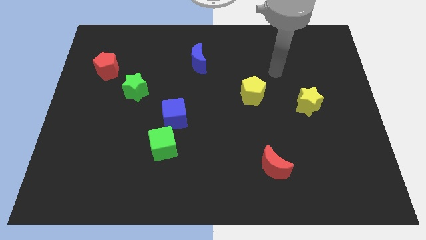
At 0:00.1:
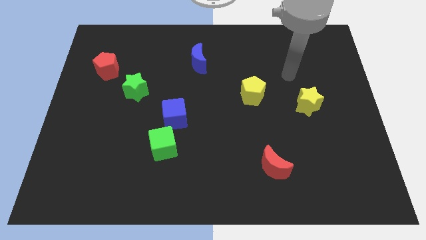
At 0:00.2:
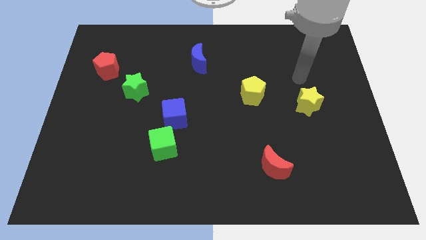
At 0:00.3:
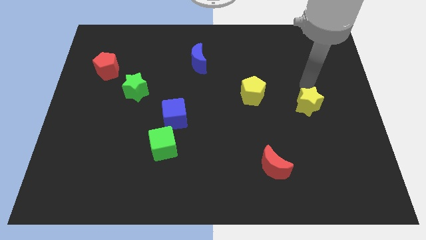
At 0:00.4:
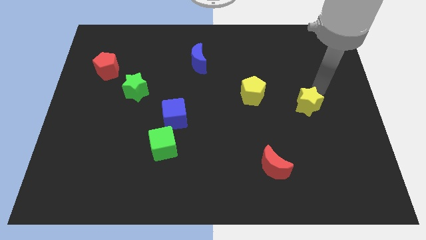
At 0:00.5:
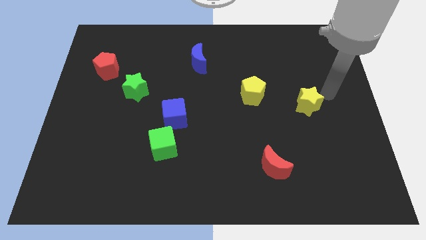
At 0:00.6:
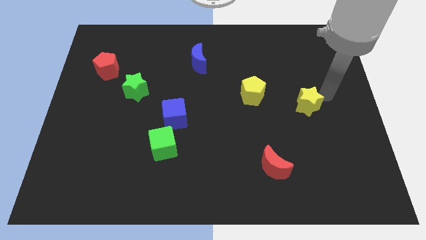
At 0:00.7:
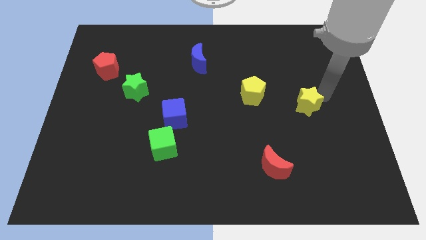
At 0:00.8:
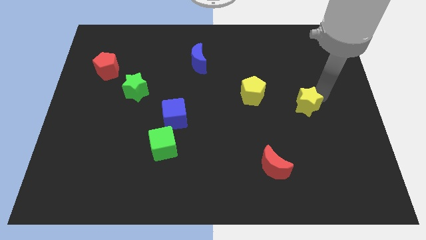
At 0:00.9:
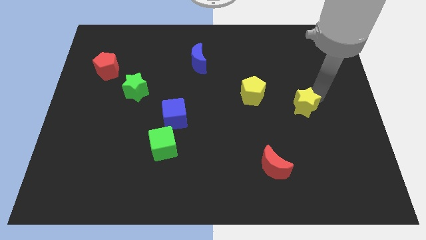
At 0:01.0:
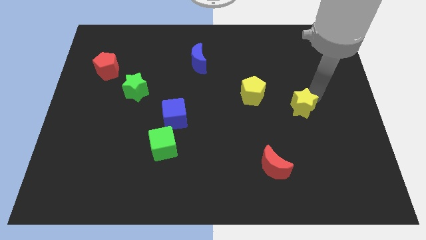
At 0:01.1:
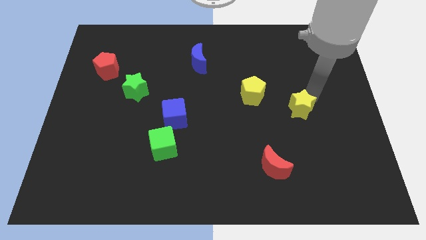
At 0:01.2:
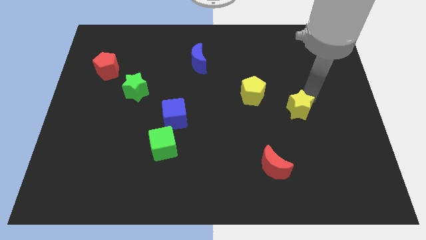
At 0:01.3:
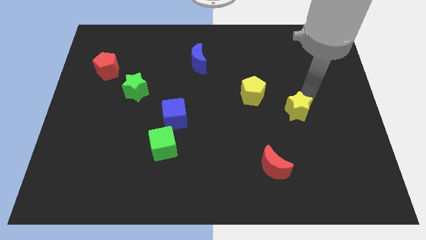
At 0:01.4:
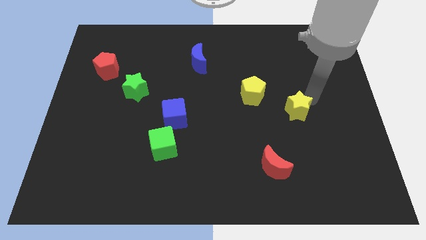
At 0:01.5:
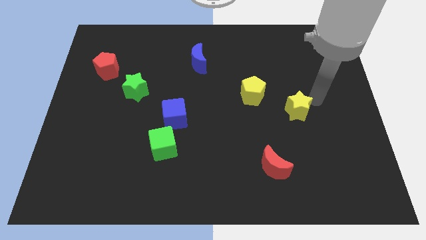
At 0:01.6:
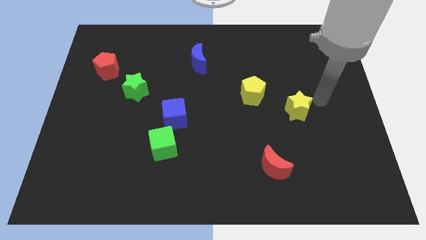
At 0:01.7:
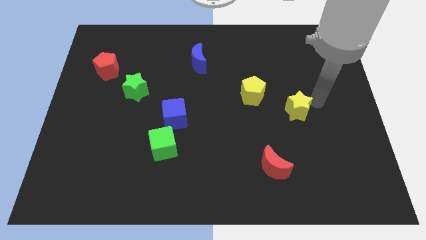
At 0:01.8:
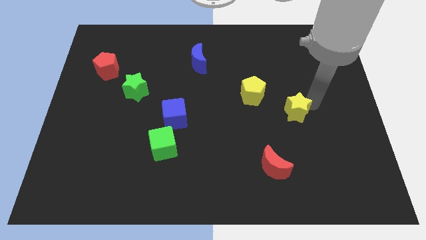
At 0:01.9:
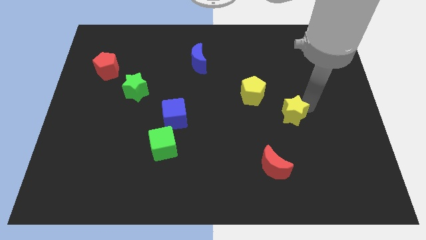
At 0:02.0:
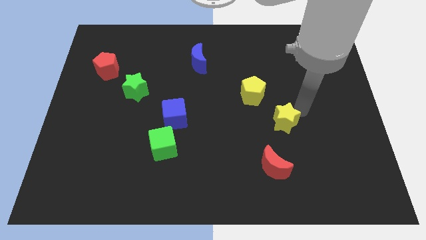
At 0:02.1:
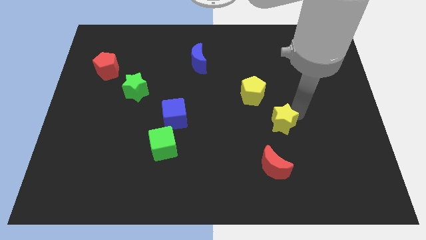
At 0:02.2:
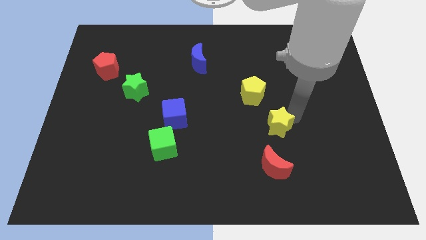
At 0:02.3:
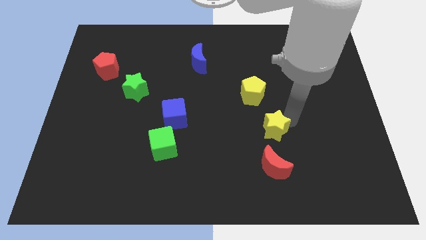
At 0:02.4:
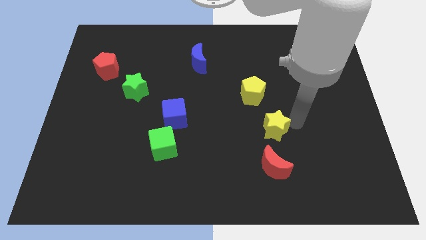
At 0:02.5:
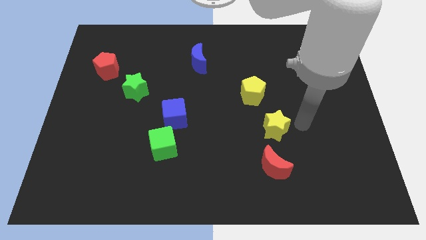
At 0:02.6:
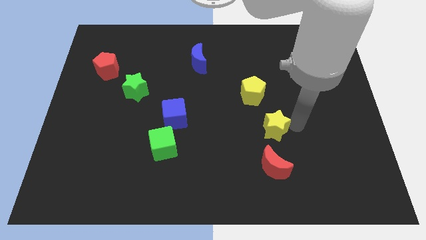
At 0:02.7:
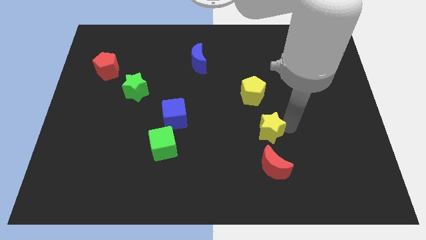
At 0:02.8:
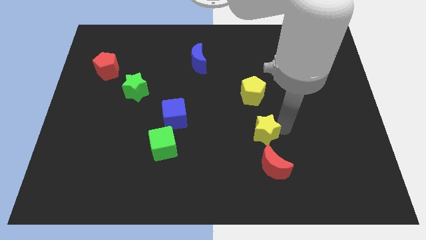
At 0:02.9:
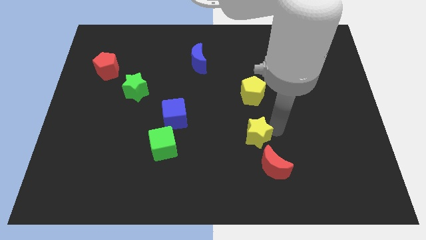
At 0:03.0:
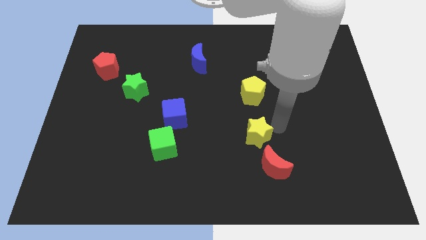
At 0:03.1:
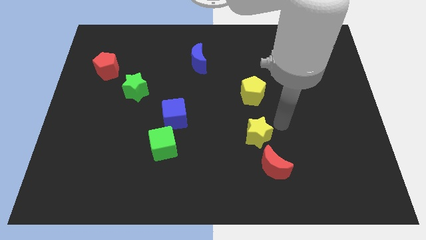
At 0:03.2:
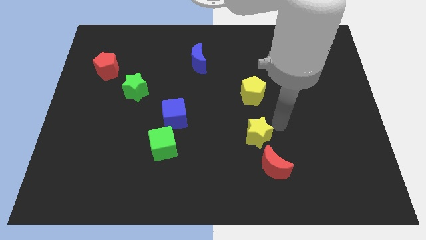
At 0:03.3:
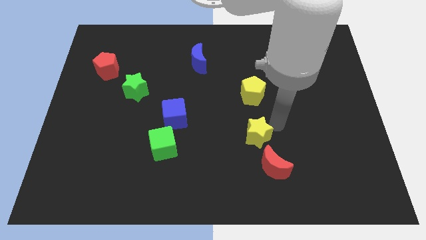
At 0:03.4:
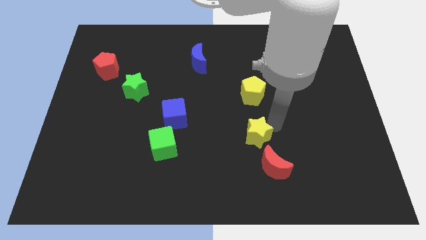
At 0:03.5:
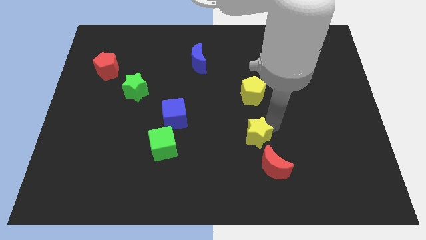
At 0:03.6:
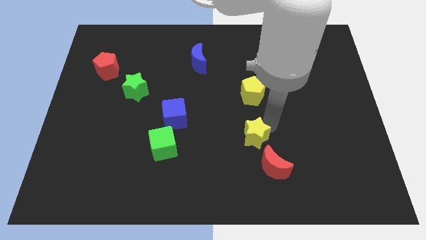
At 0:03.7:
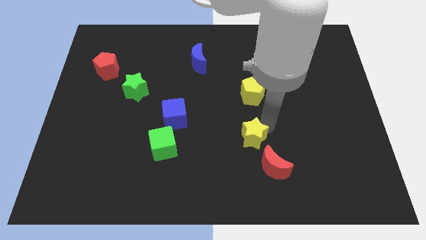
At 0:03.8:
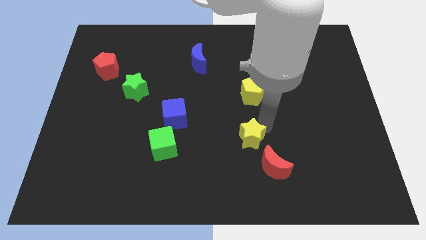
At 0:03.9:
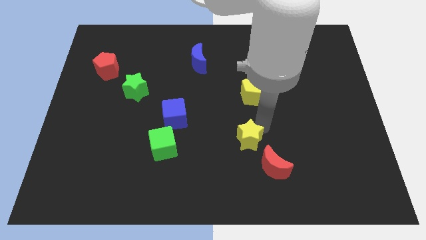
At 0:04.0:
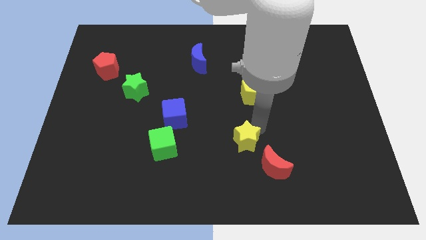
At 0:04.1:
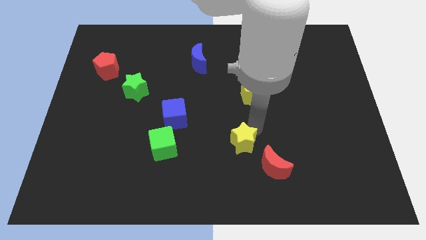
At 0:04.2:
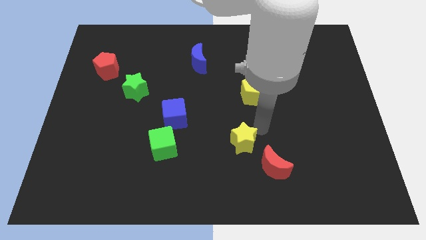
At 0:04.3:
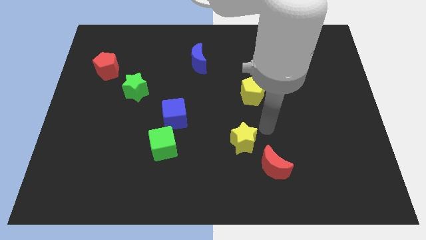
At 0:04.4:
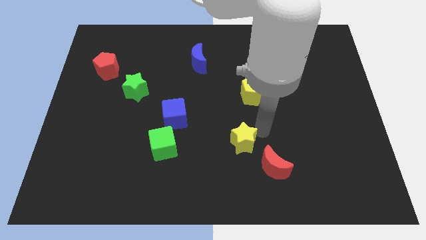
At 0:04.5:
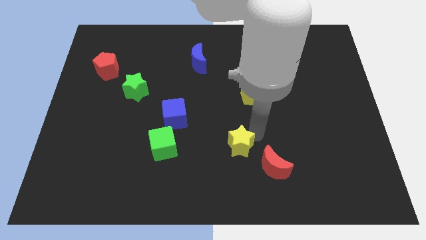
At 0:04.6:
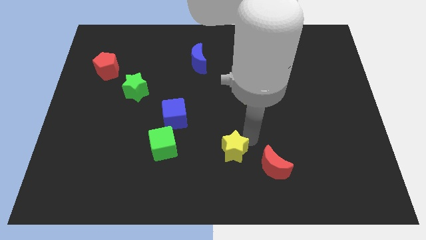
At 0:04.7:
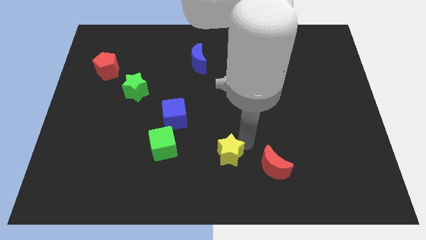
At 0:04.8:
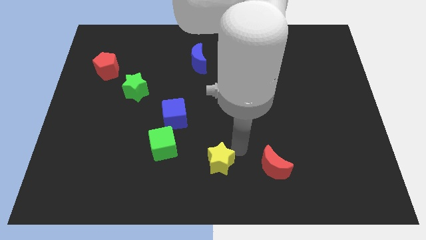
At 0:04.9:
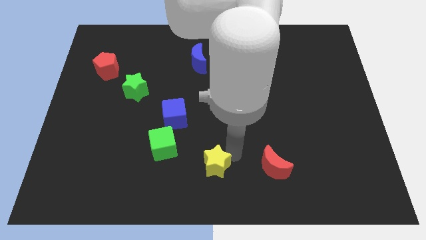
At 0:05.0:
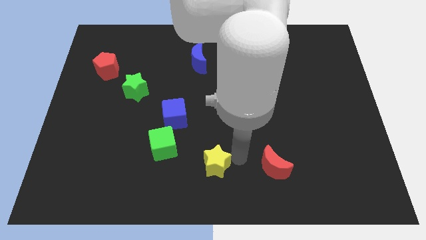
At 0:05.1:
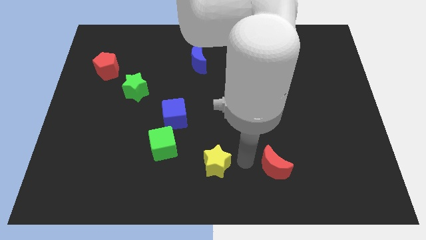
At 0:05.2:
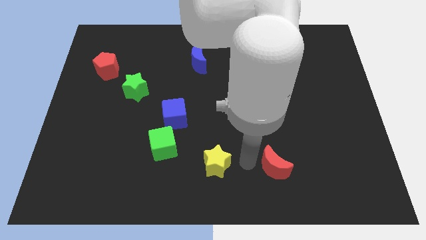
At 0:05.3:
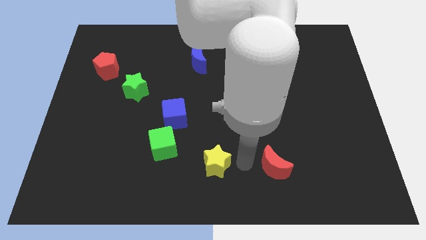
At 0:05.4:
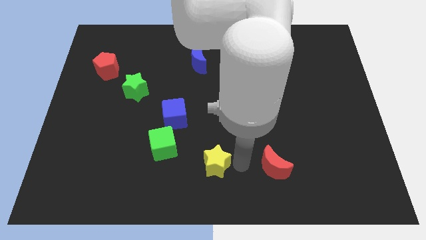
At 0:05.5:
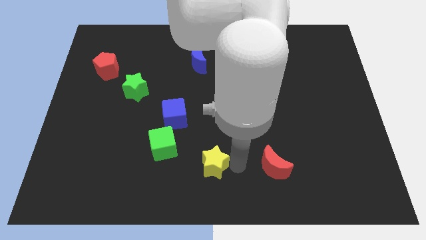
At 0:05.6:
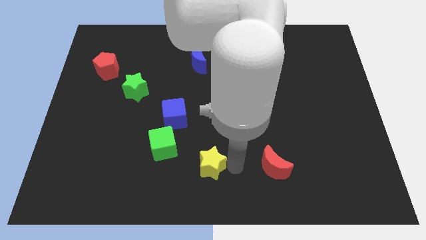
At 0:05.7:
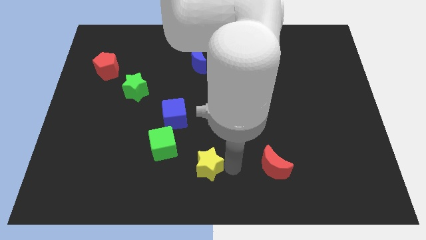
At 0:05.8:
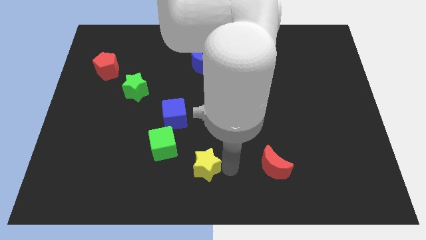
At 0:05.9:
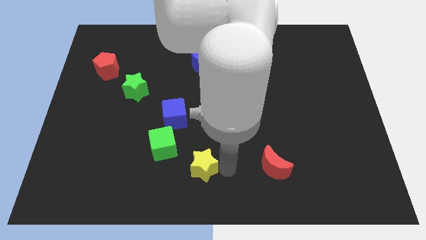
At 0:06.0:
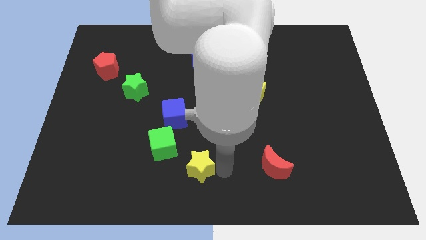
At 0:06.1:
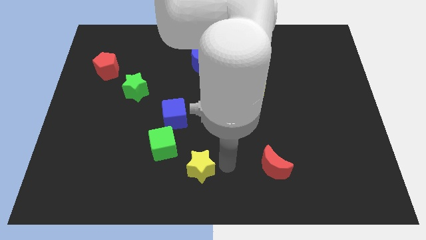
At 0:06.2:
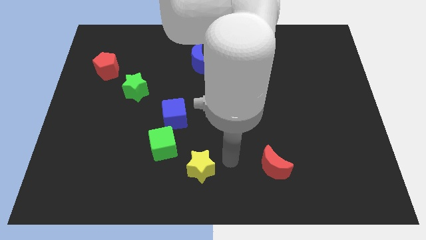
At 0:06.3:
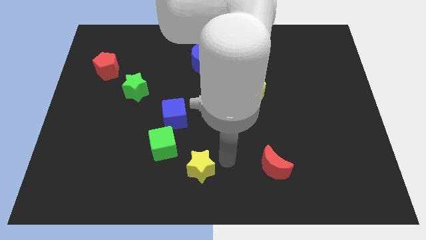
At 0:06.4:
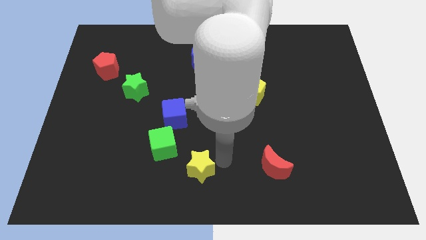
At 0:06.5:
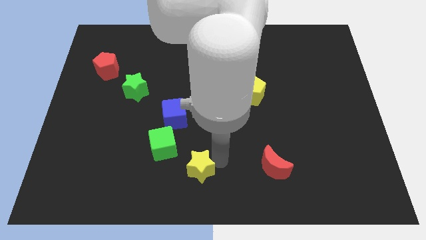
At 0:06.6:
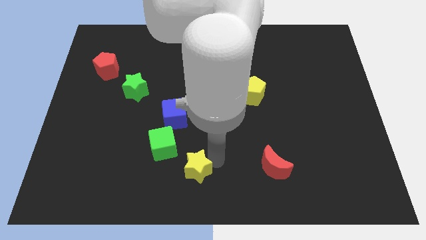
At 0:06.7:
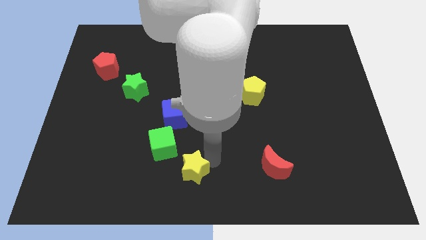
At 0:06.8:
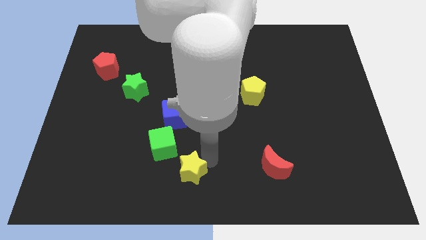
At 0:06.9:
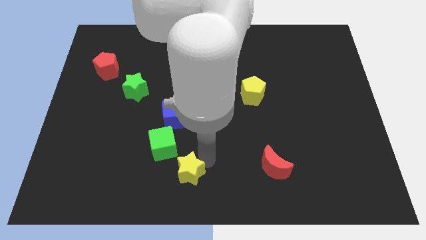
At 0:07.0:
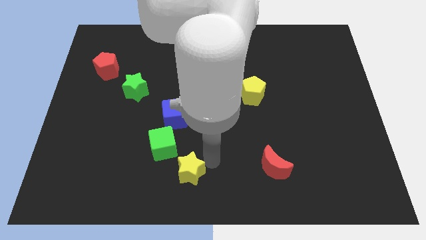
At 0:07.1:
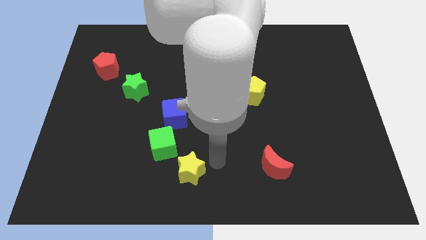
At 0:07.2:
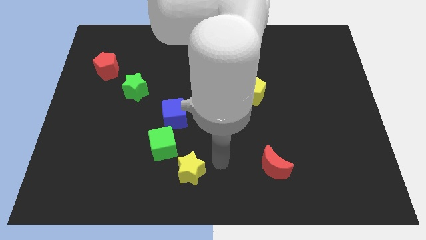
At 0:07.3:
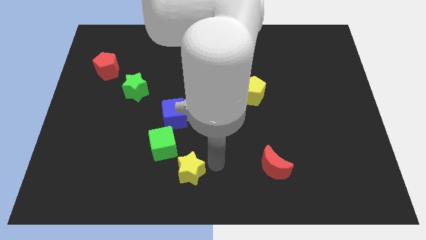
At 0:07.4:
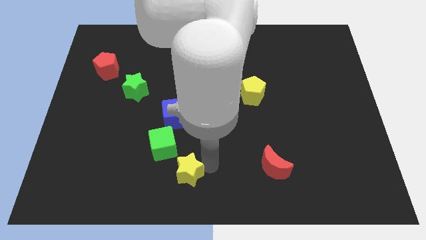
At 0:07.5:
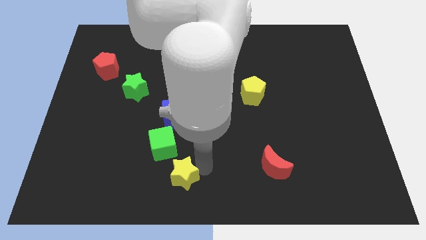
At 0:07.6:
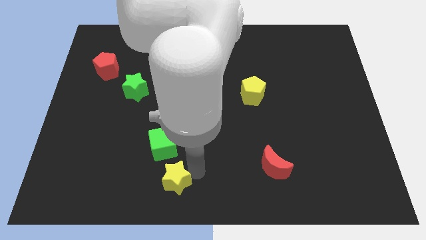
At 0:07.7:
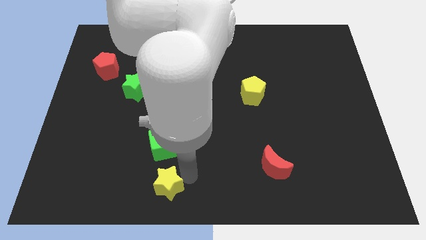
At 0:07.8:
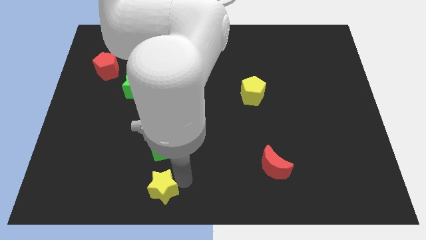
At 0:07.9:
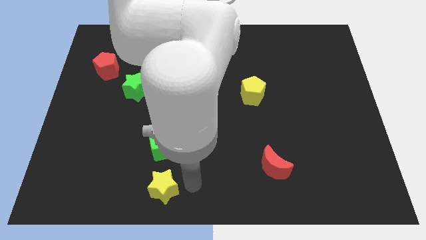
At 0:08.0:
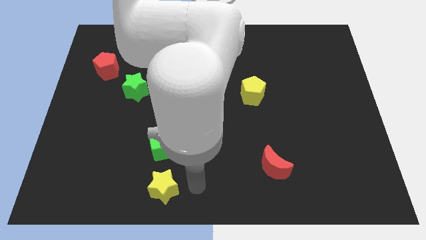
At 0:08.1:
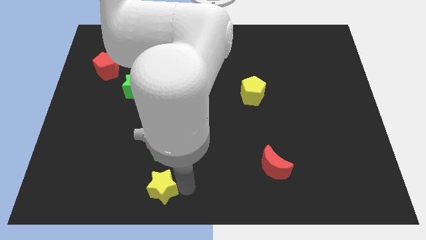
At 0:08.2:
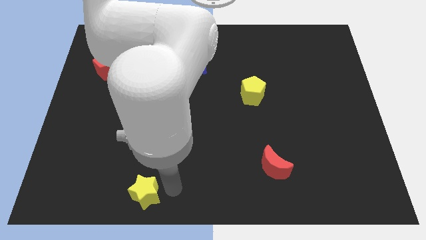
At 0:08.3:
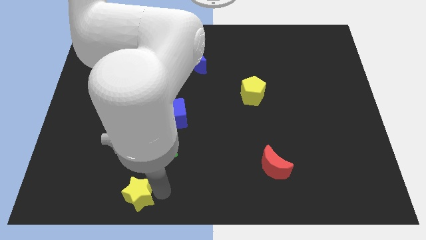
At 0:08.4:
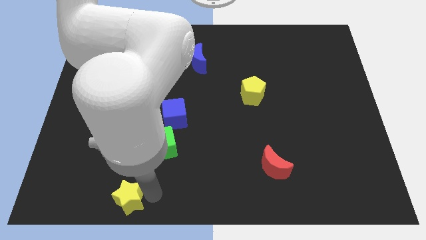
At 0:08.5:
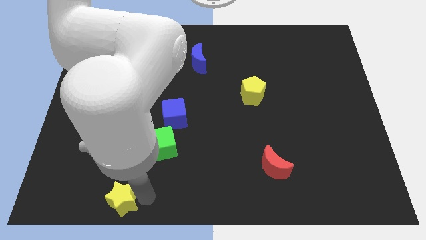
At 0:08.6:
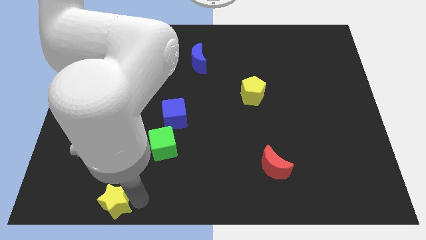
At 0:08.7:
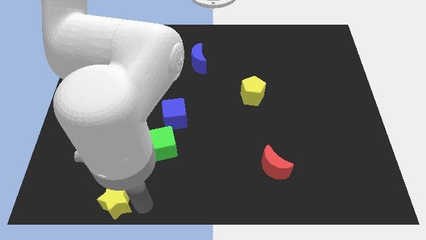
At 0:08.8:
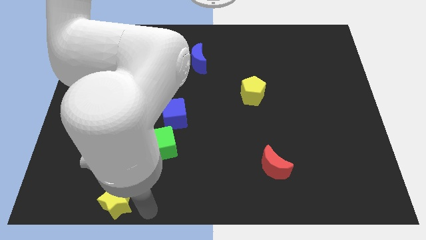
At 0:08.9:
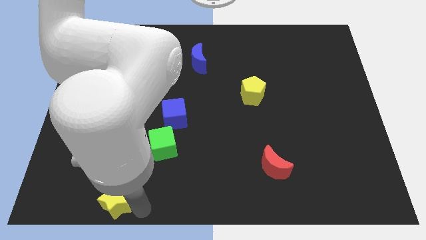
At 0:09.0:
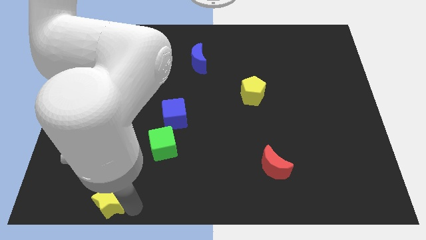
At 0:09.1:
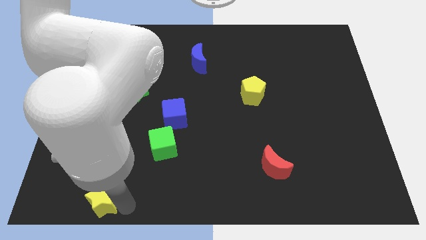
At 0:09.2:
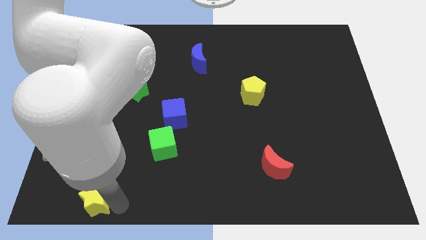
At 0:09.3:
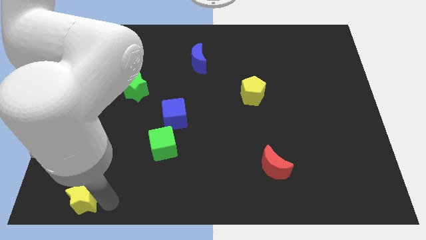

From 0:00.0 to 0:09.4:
put the yellow star to the bottom left of the board
